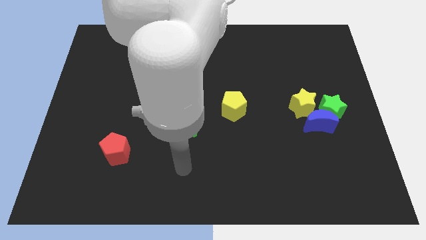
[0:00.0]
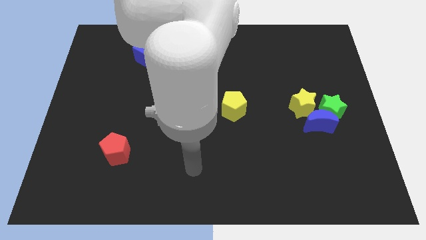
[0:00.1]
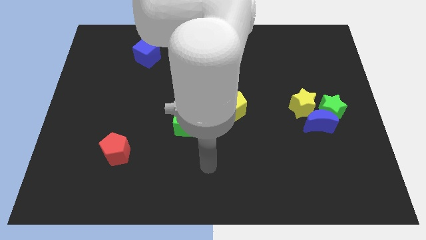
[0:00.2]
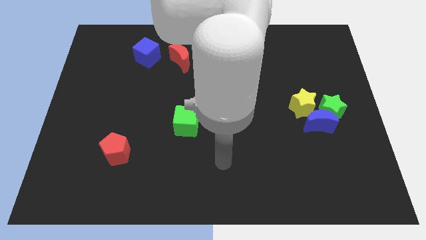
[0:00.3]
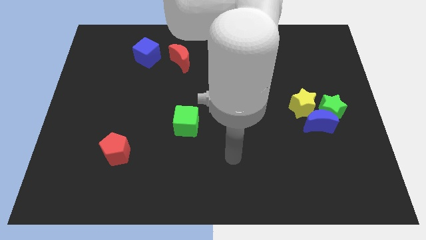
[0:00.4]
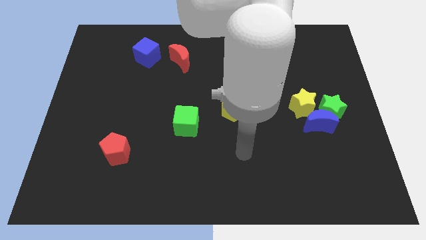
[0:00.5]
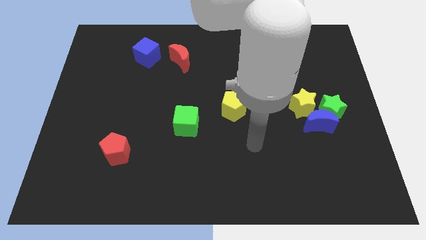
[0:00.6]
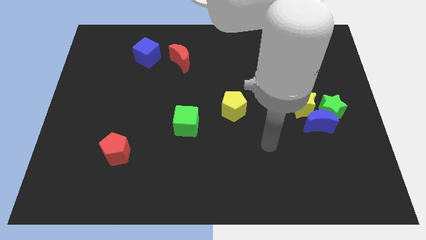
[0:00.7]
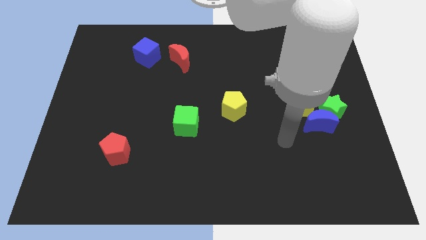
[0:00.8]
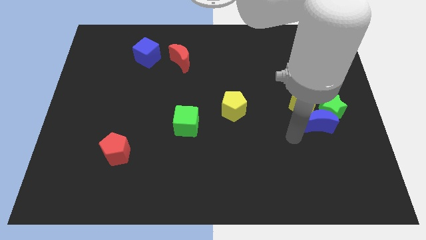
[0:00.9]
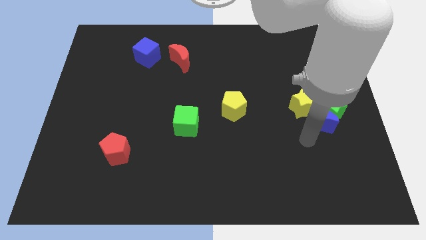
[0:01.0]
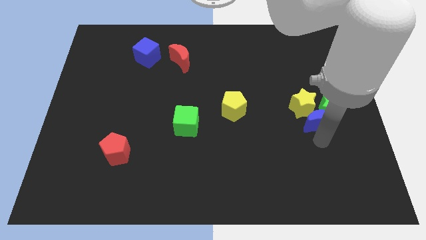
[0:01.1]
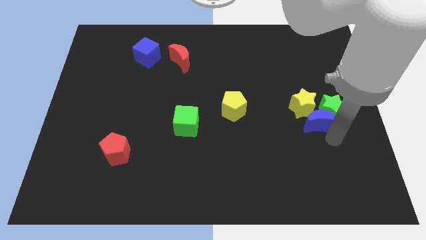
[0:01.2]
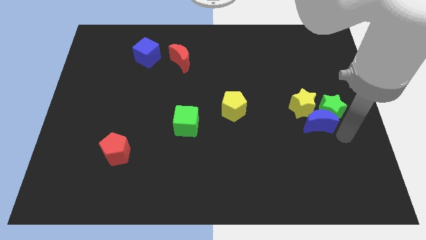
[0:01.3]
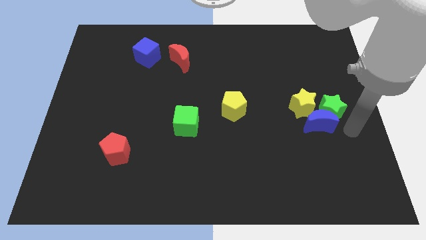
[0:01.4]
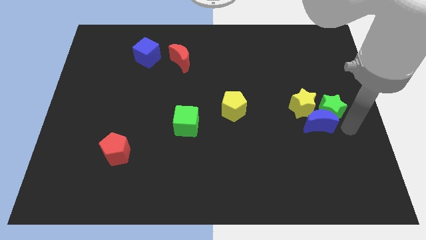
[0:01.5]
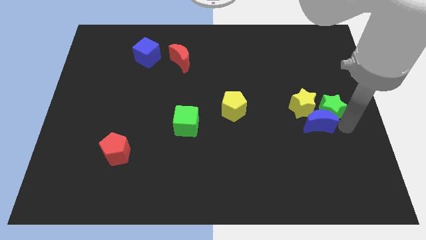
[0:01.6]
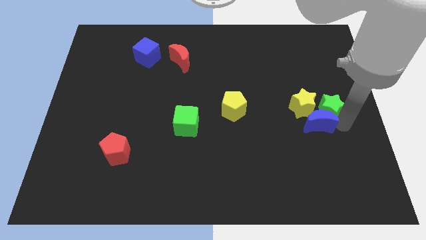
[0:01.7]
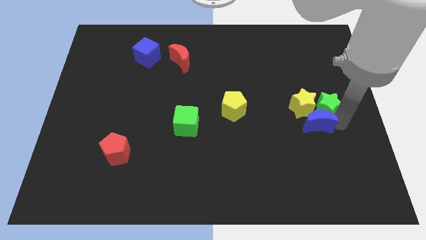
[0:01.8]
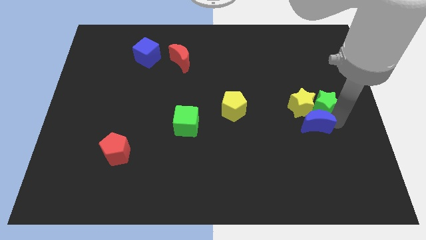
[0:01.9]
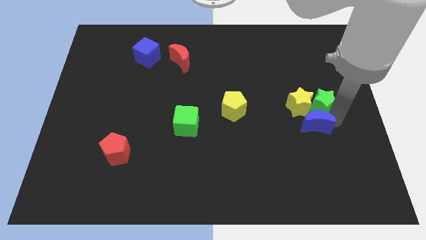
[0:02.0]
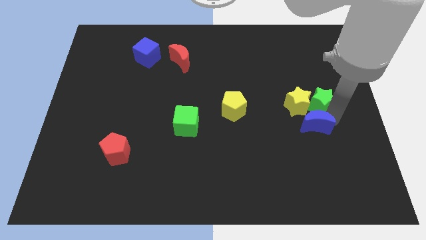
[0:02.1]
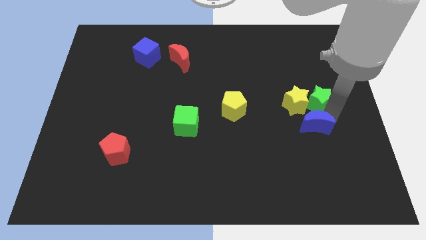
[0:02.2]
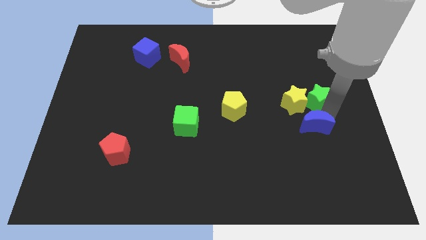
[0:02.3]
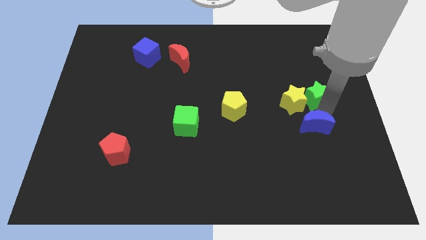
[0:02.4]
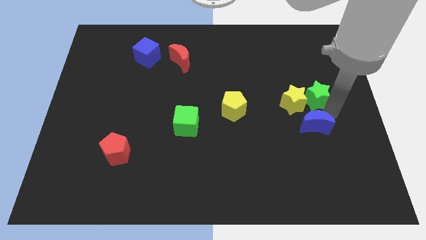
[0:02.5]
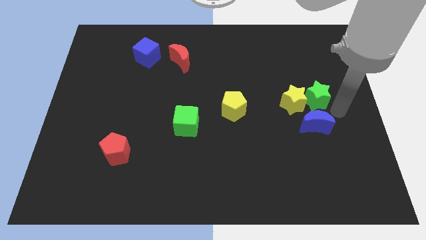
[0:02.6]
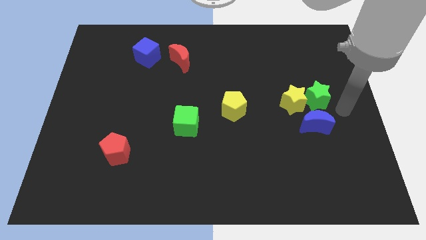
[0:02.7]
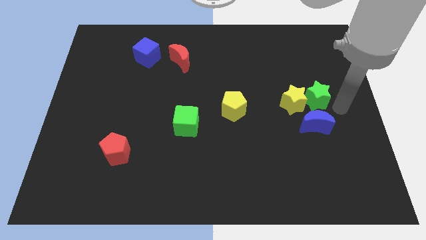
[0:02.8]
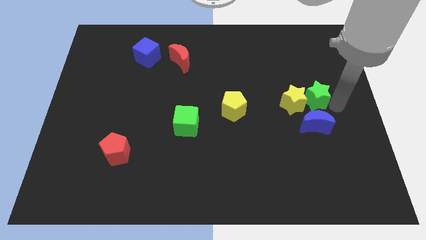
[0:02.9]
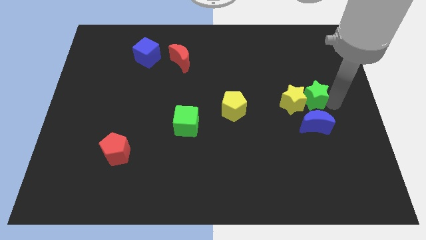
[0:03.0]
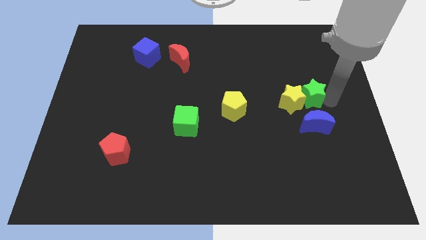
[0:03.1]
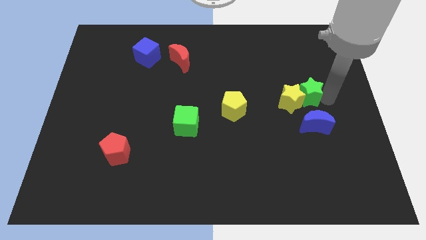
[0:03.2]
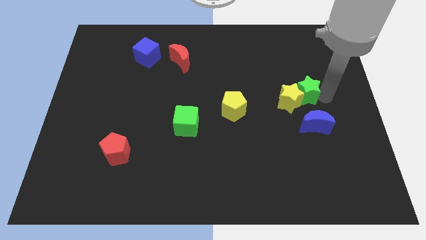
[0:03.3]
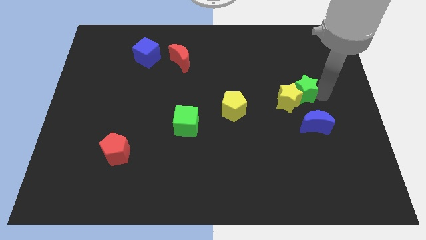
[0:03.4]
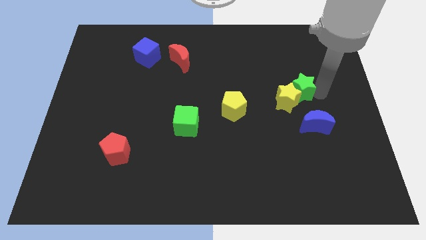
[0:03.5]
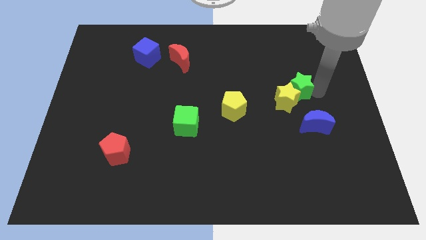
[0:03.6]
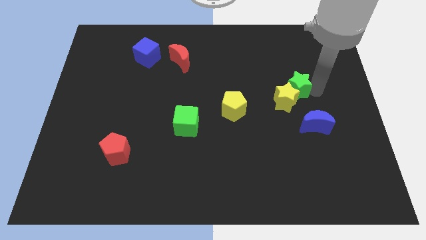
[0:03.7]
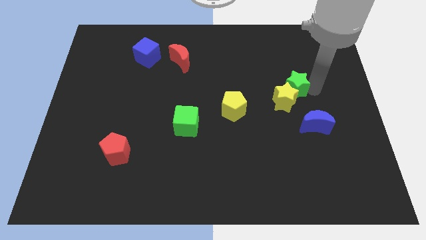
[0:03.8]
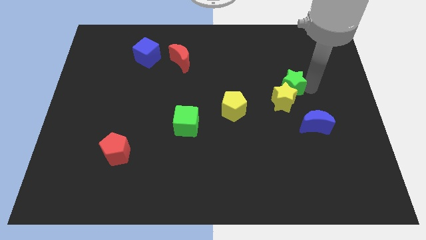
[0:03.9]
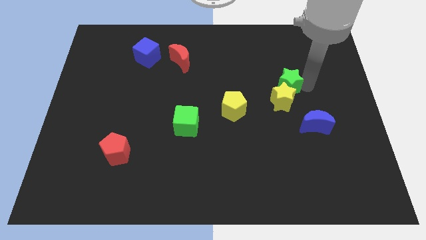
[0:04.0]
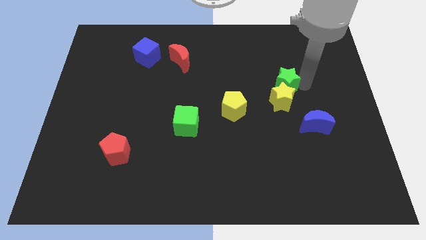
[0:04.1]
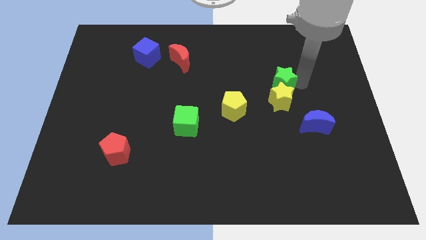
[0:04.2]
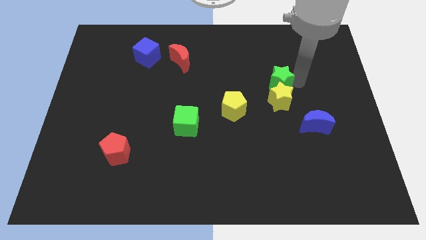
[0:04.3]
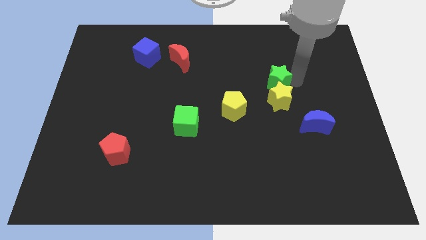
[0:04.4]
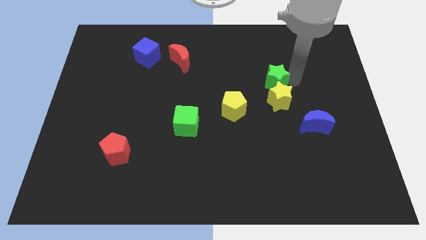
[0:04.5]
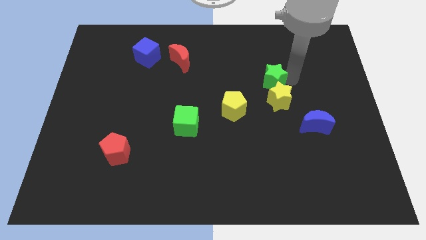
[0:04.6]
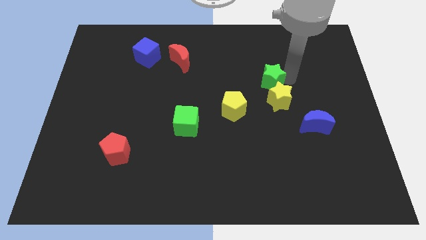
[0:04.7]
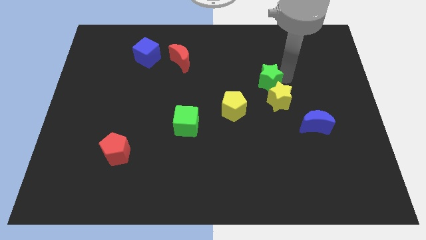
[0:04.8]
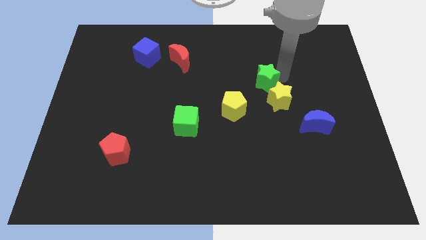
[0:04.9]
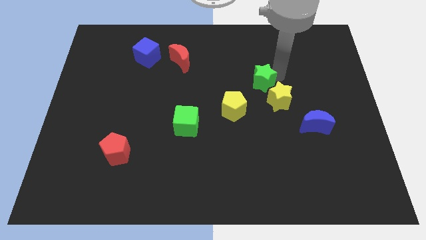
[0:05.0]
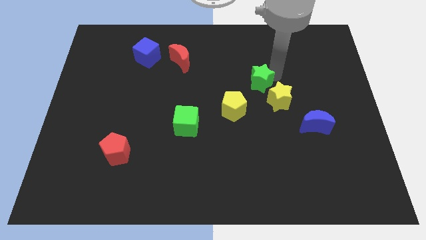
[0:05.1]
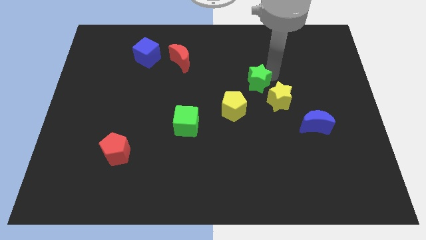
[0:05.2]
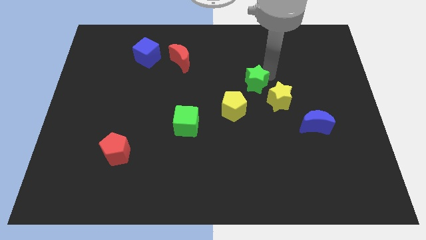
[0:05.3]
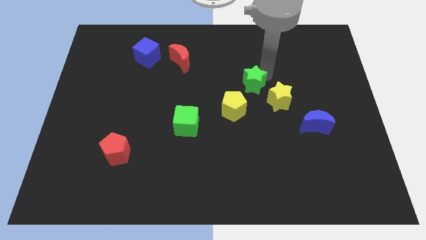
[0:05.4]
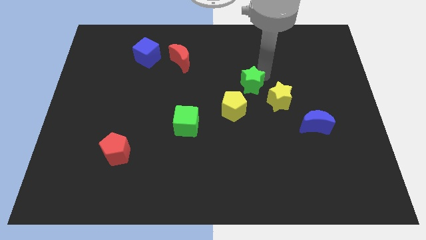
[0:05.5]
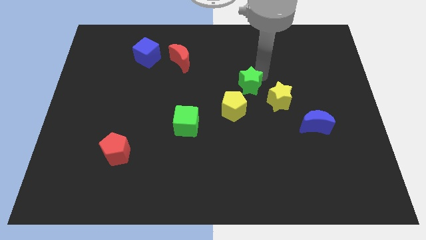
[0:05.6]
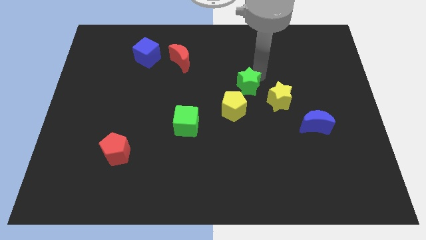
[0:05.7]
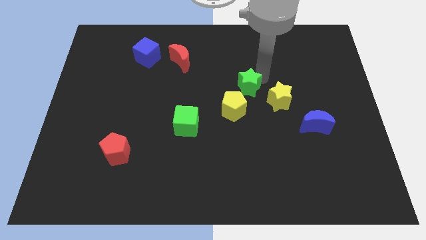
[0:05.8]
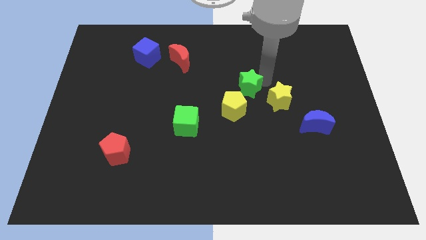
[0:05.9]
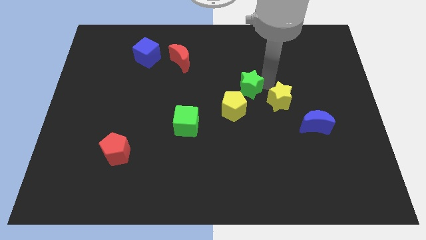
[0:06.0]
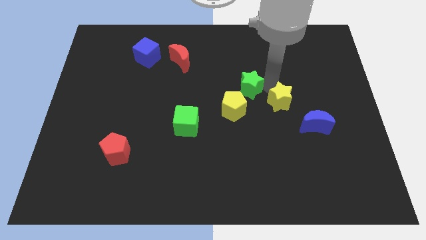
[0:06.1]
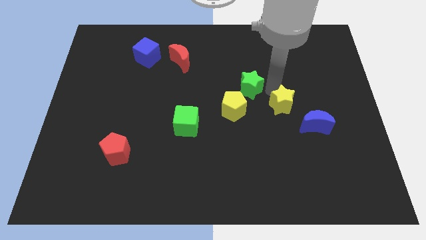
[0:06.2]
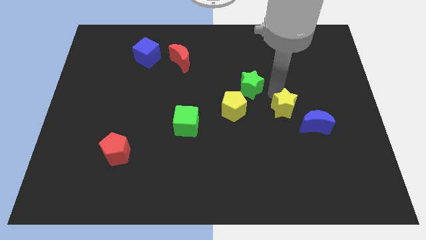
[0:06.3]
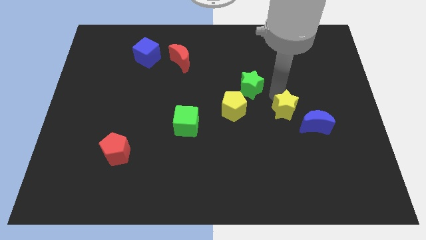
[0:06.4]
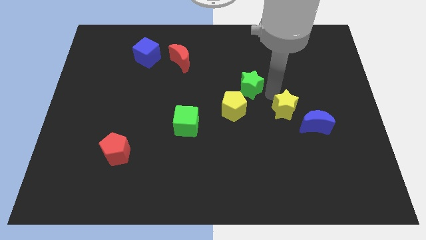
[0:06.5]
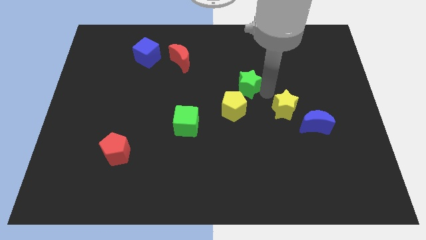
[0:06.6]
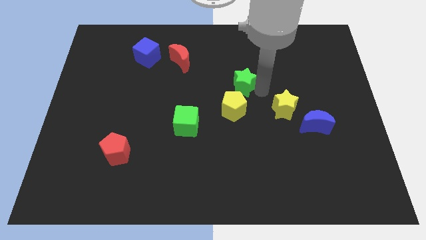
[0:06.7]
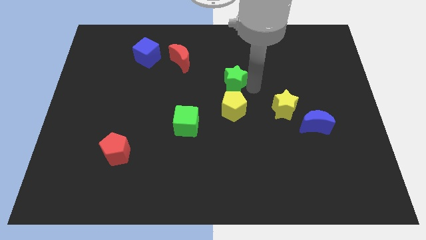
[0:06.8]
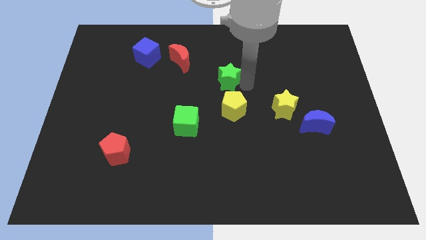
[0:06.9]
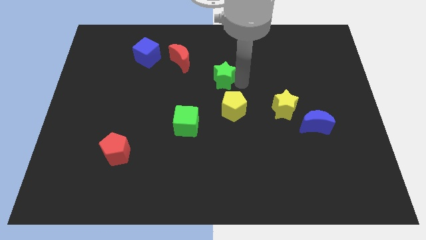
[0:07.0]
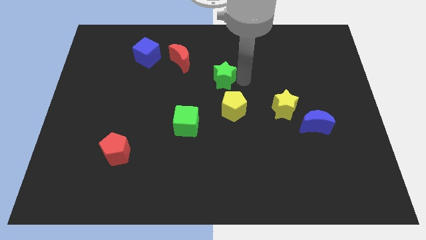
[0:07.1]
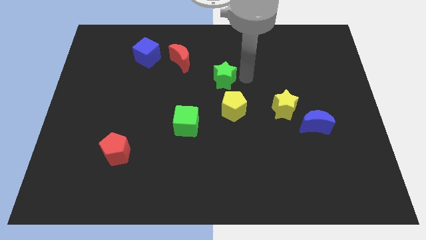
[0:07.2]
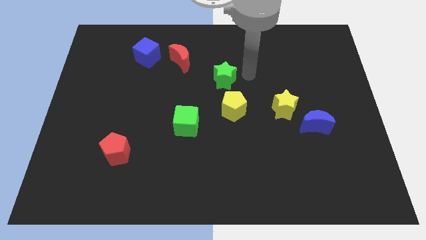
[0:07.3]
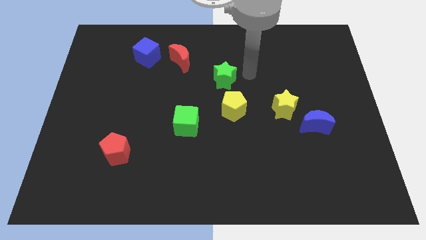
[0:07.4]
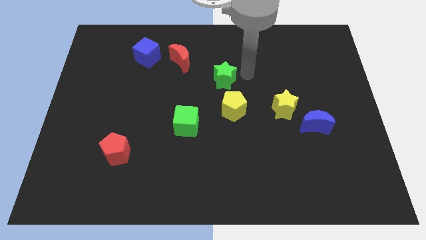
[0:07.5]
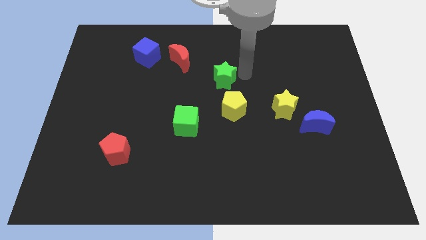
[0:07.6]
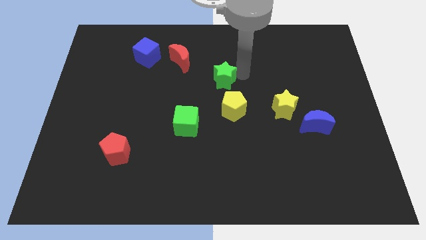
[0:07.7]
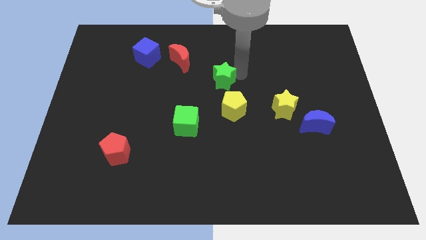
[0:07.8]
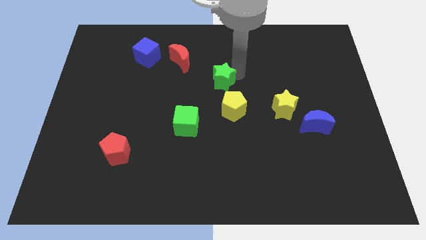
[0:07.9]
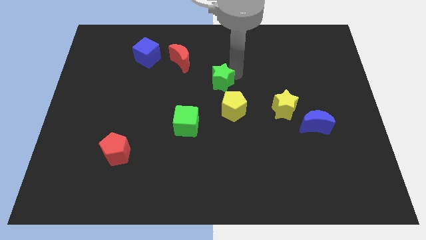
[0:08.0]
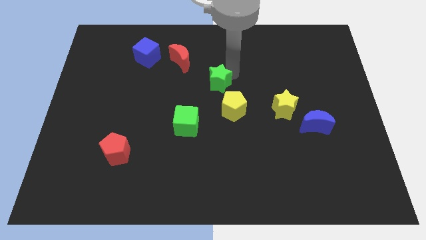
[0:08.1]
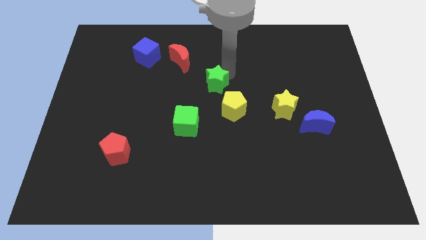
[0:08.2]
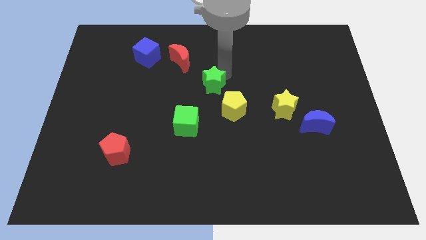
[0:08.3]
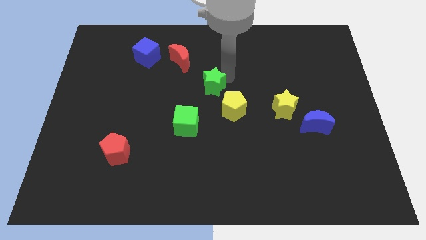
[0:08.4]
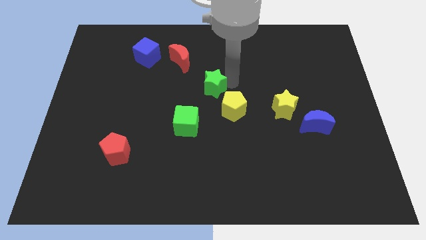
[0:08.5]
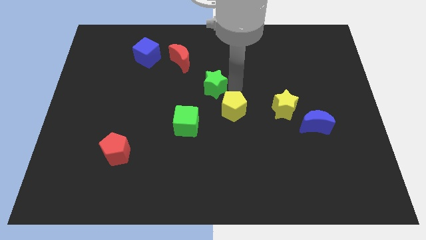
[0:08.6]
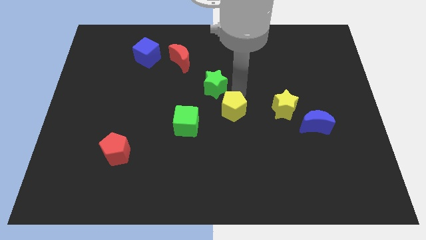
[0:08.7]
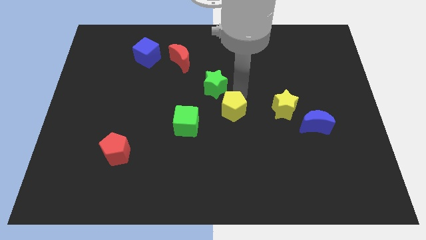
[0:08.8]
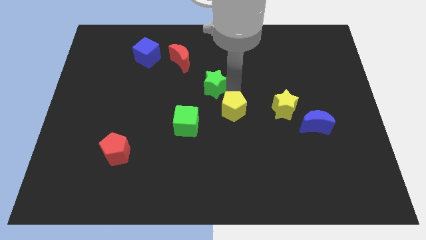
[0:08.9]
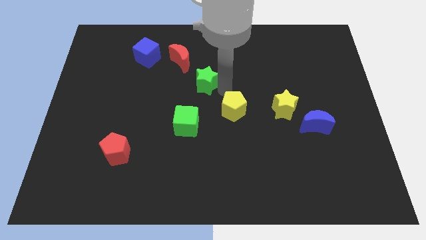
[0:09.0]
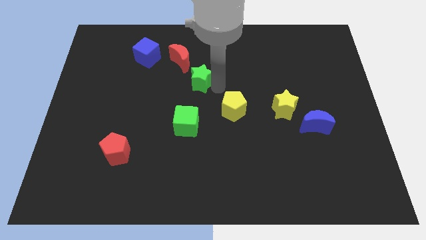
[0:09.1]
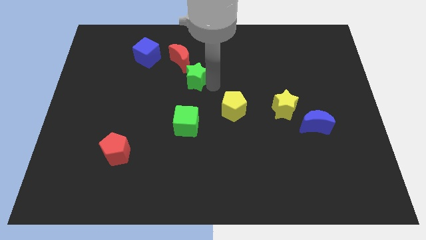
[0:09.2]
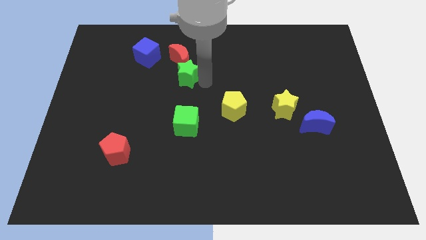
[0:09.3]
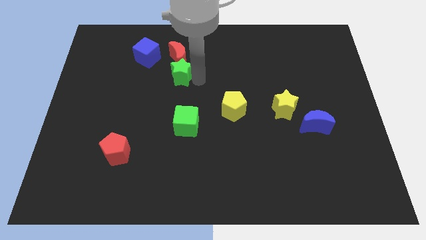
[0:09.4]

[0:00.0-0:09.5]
slide the green star diagonally down and to the right of the blue cube
